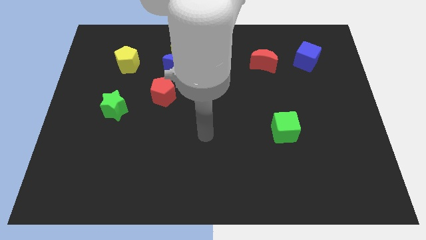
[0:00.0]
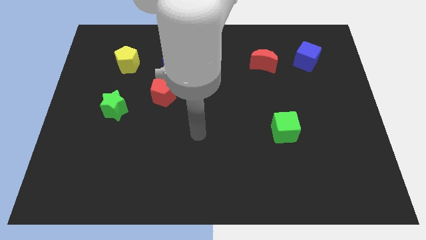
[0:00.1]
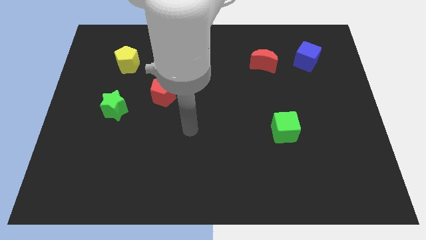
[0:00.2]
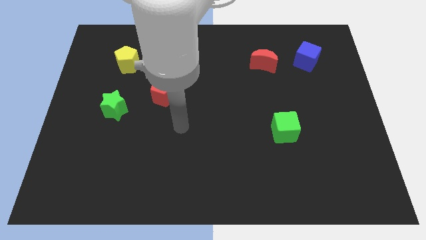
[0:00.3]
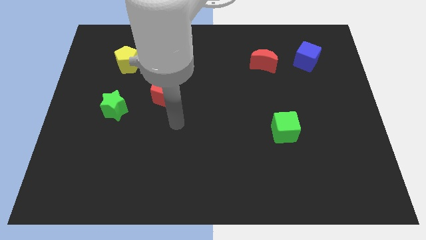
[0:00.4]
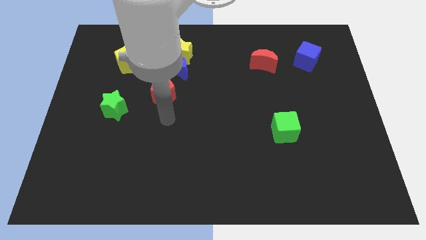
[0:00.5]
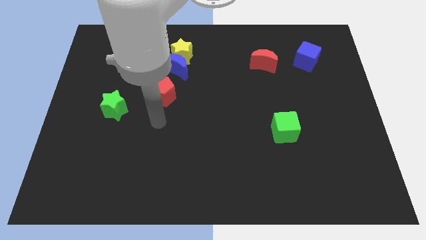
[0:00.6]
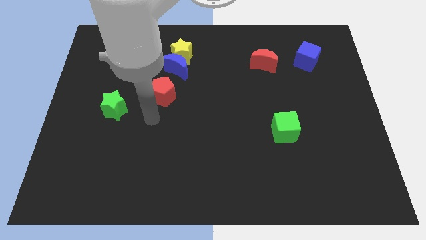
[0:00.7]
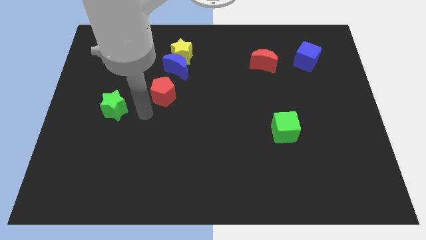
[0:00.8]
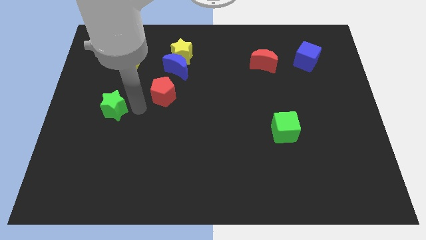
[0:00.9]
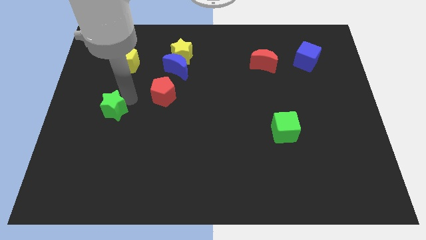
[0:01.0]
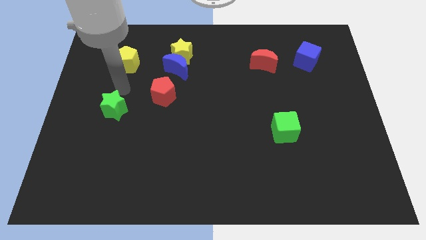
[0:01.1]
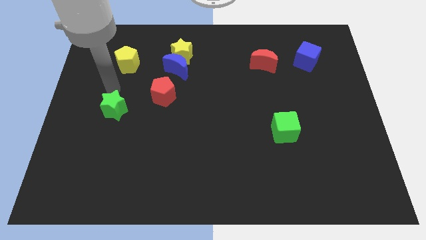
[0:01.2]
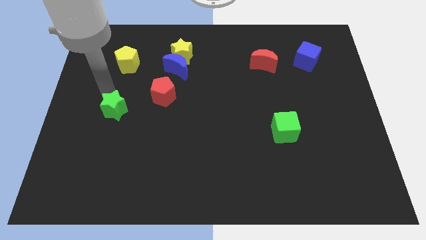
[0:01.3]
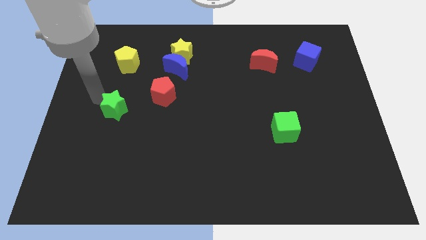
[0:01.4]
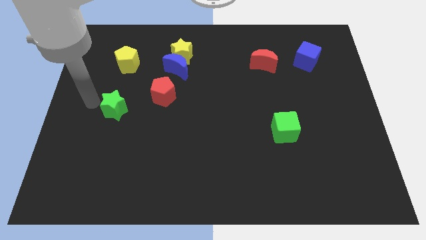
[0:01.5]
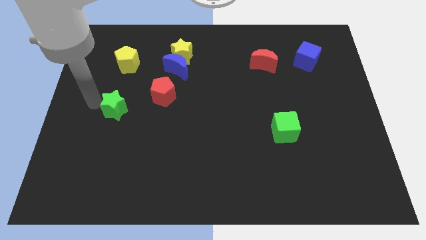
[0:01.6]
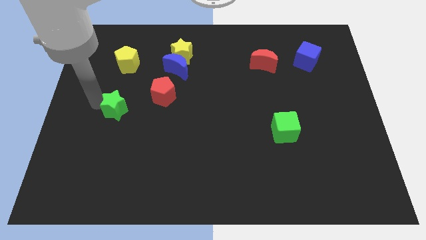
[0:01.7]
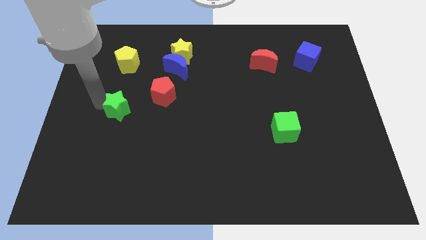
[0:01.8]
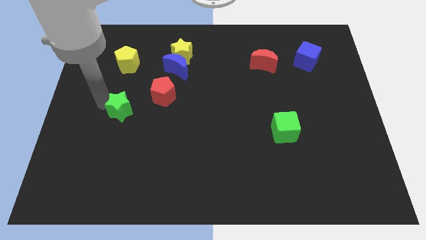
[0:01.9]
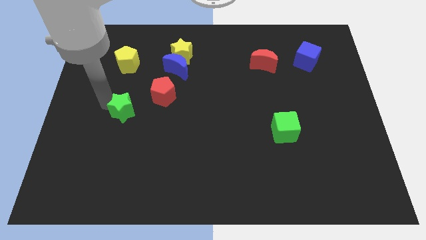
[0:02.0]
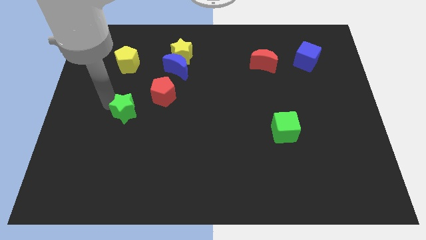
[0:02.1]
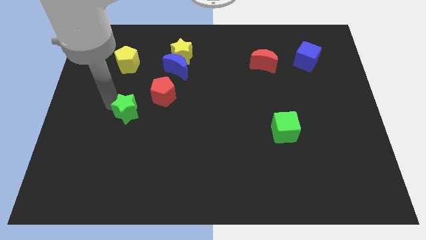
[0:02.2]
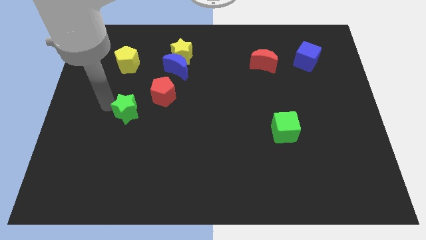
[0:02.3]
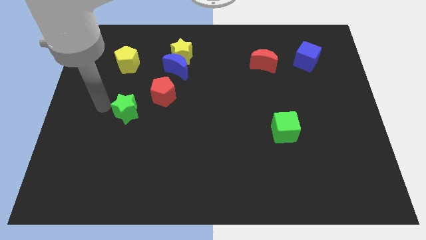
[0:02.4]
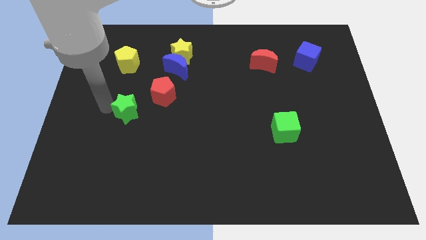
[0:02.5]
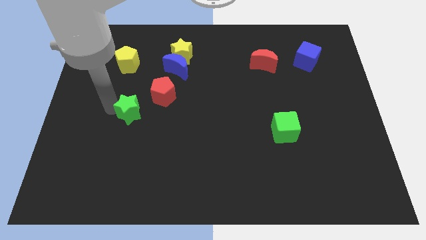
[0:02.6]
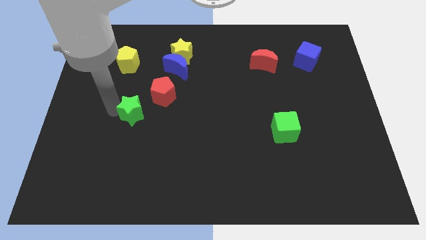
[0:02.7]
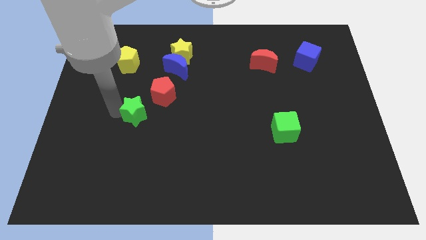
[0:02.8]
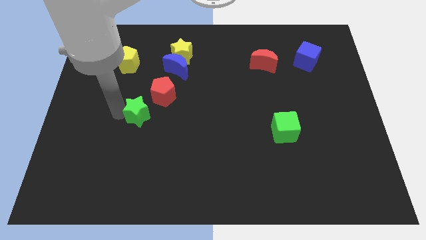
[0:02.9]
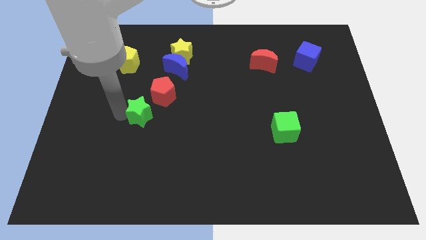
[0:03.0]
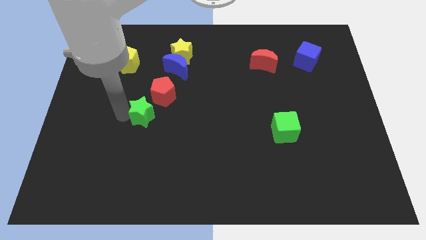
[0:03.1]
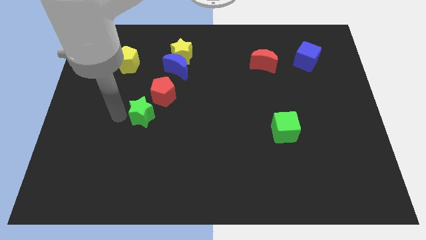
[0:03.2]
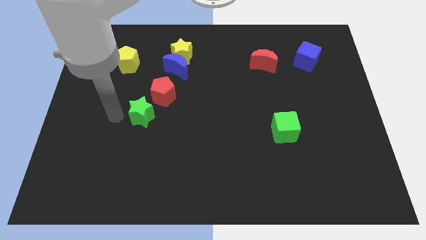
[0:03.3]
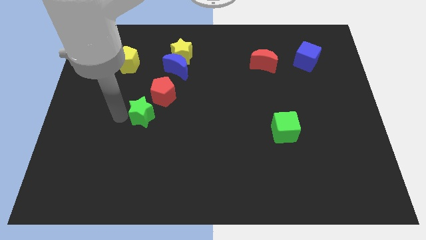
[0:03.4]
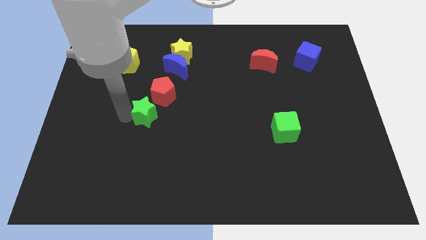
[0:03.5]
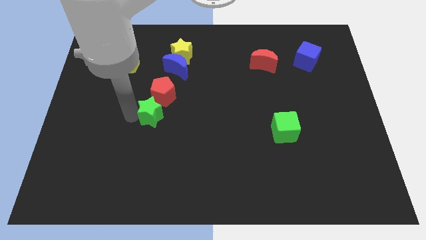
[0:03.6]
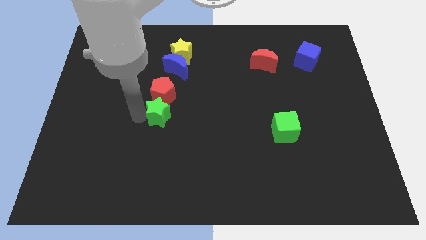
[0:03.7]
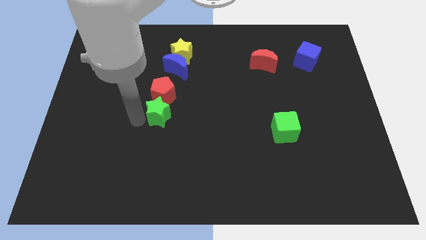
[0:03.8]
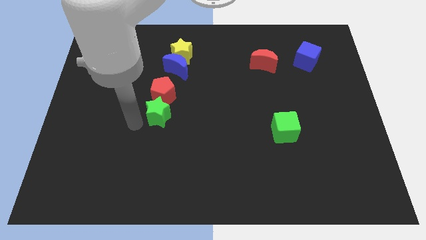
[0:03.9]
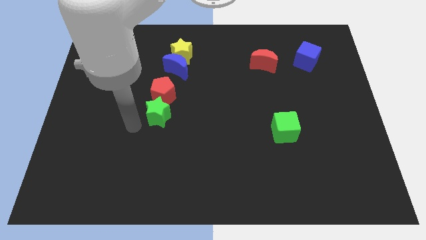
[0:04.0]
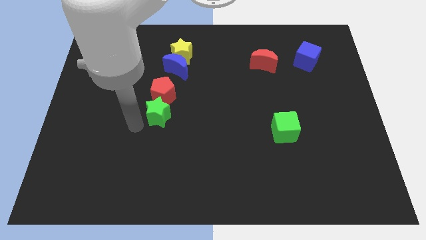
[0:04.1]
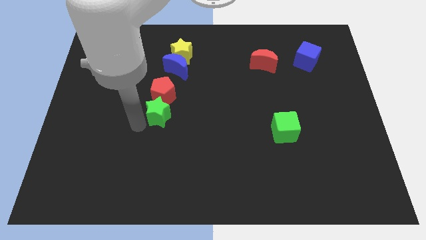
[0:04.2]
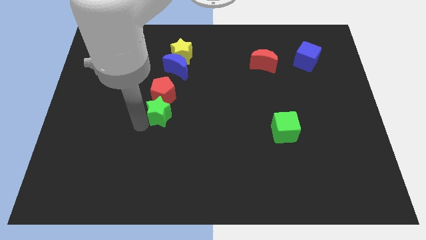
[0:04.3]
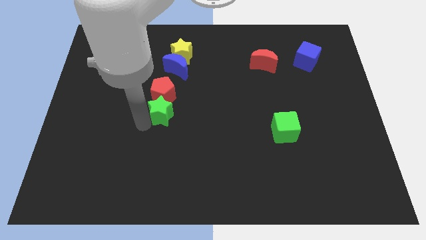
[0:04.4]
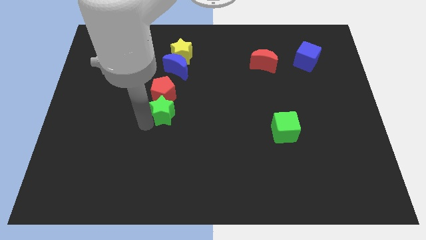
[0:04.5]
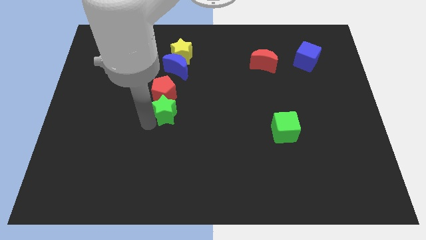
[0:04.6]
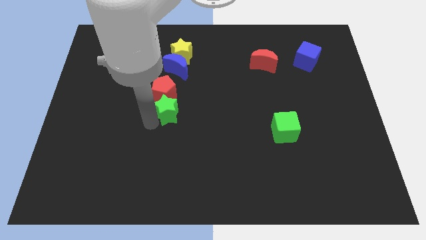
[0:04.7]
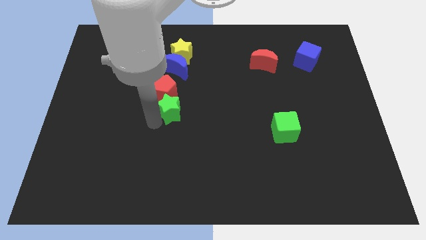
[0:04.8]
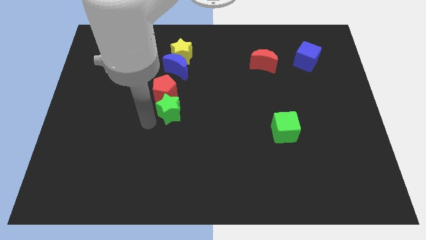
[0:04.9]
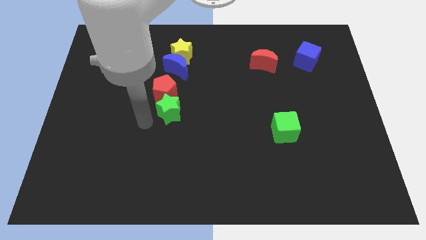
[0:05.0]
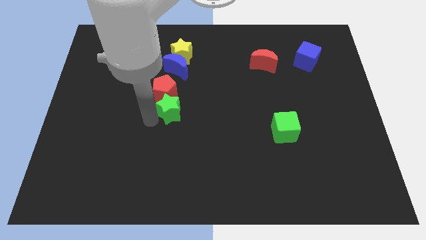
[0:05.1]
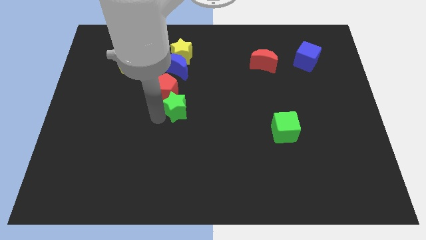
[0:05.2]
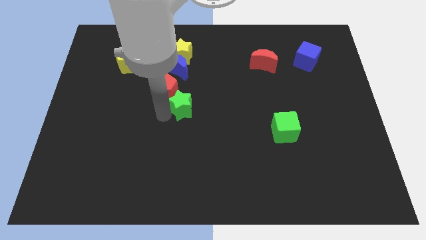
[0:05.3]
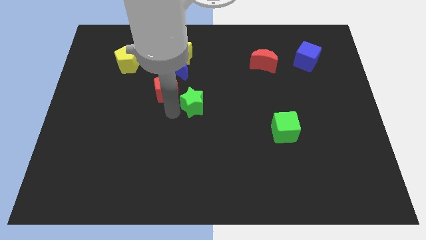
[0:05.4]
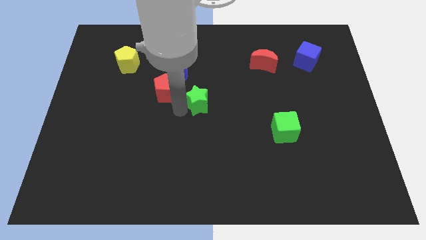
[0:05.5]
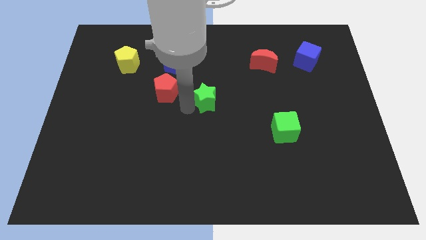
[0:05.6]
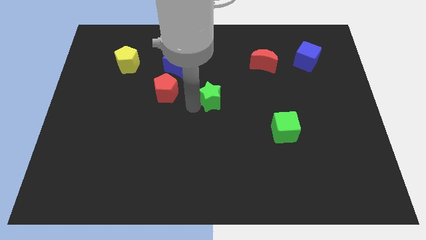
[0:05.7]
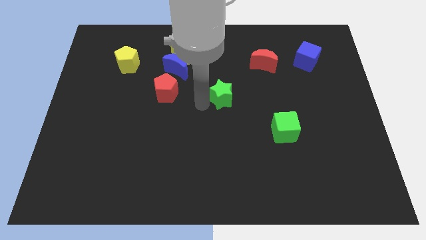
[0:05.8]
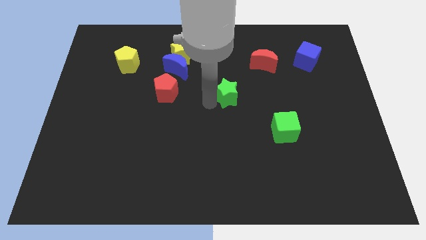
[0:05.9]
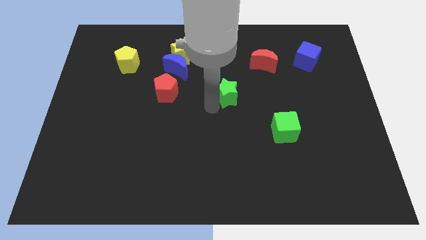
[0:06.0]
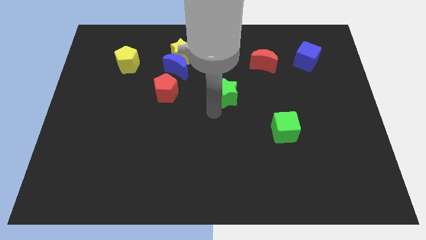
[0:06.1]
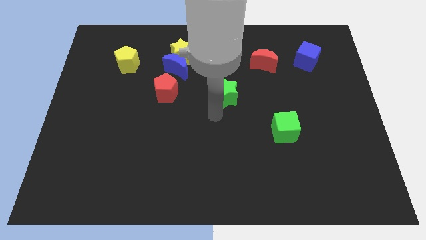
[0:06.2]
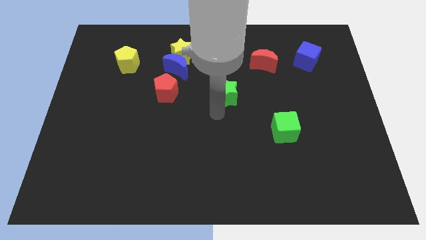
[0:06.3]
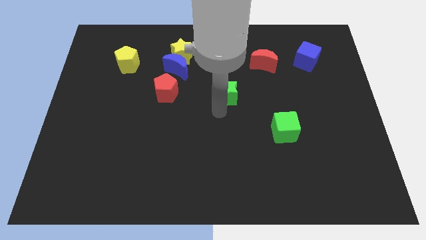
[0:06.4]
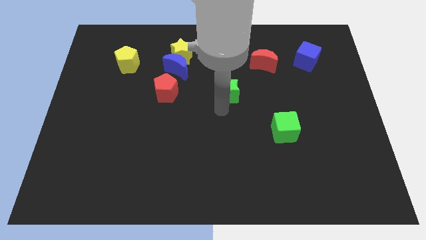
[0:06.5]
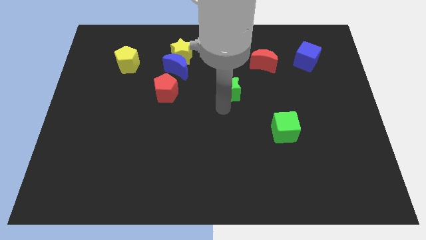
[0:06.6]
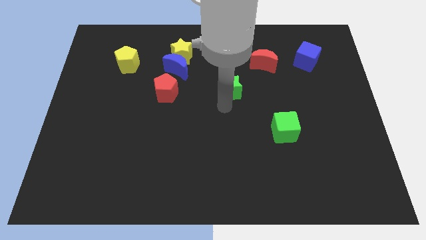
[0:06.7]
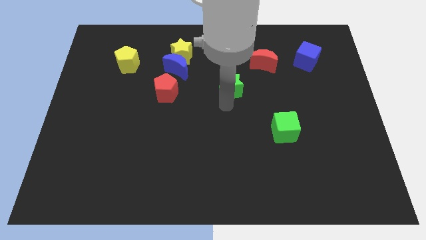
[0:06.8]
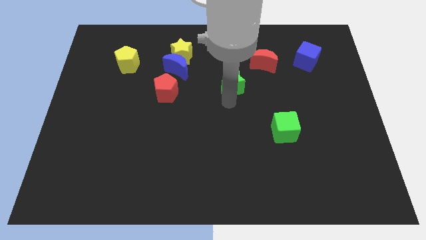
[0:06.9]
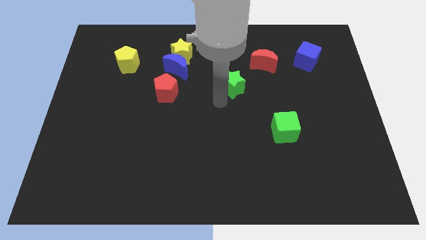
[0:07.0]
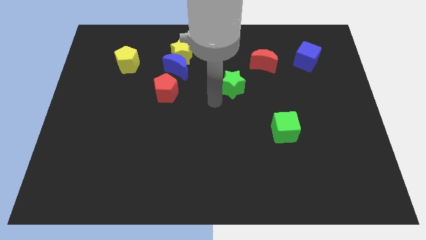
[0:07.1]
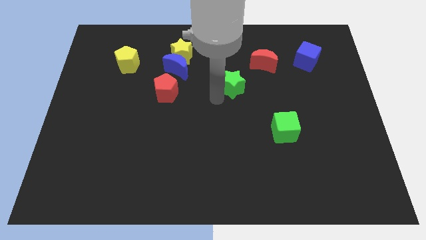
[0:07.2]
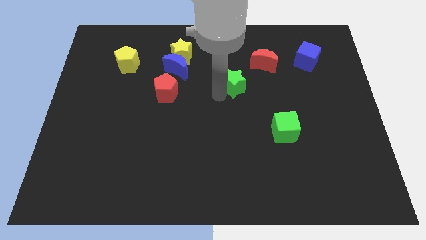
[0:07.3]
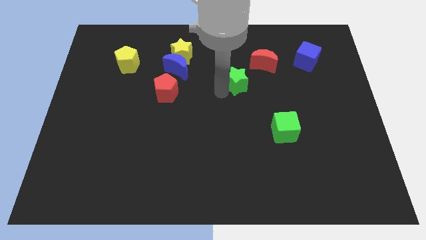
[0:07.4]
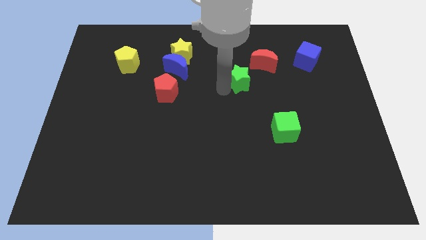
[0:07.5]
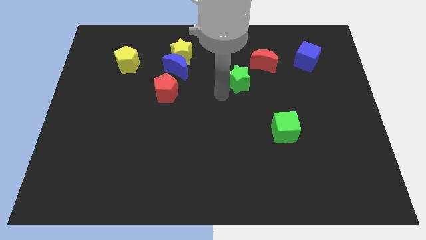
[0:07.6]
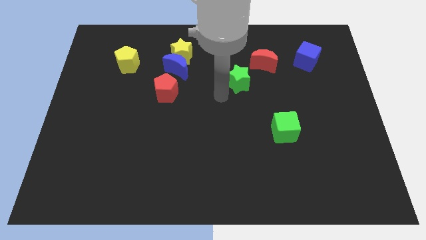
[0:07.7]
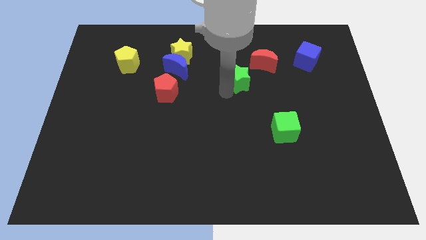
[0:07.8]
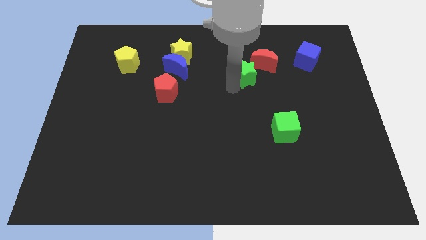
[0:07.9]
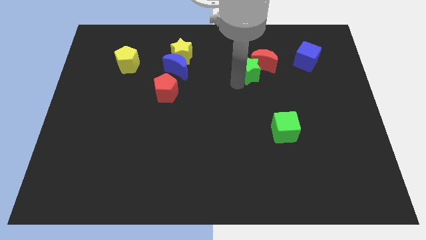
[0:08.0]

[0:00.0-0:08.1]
push the green star towards the red moon
